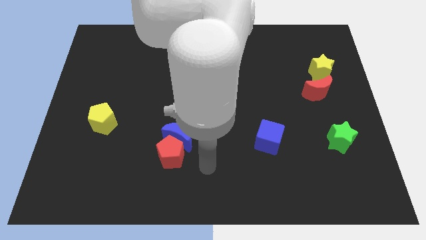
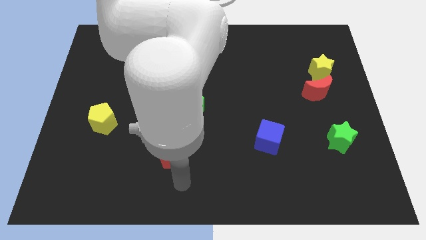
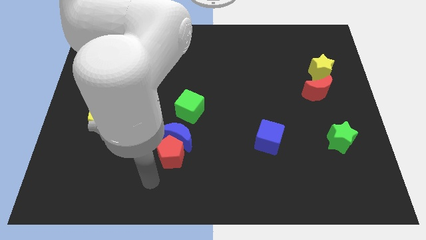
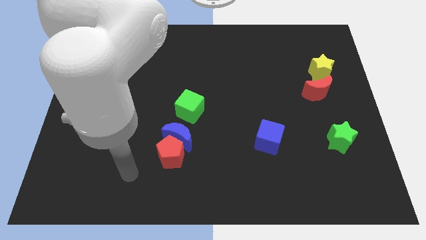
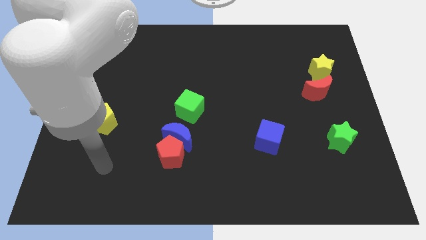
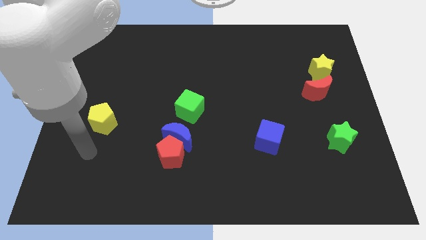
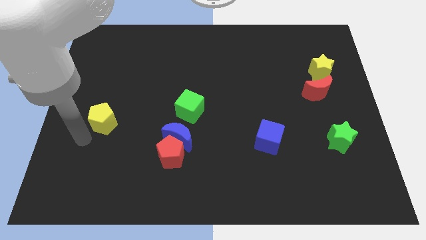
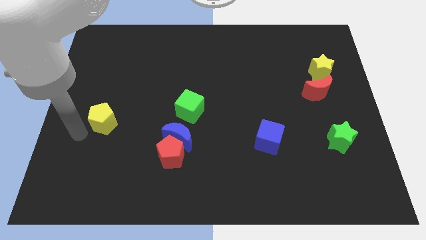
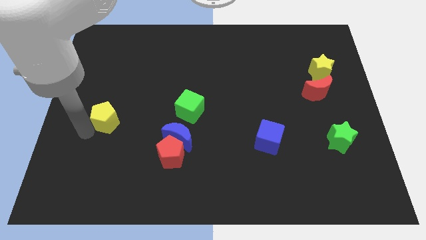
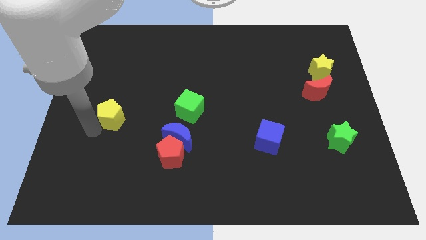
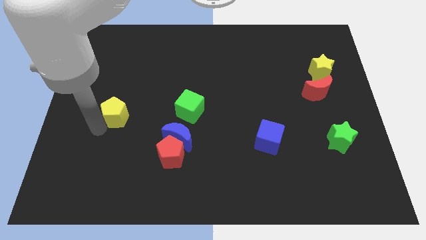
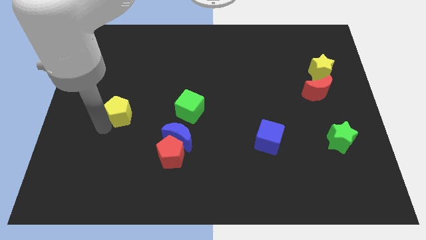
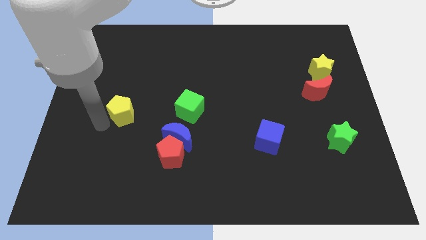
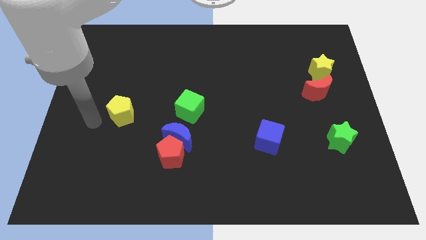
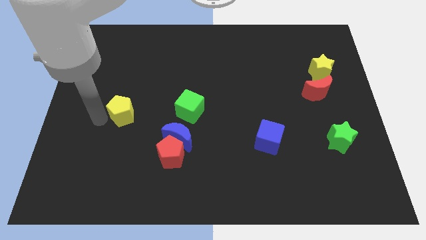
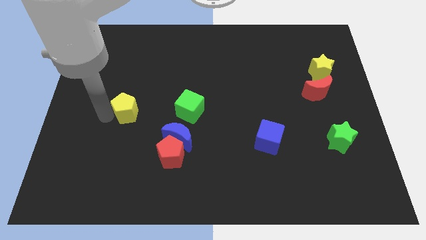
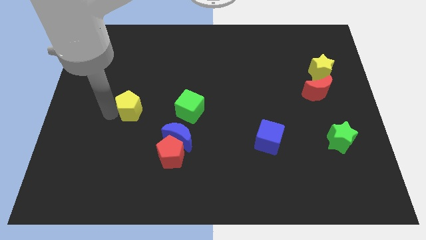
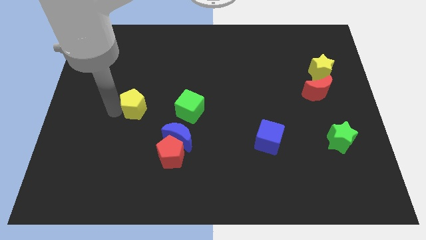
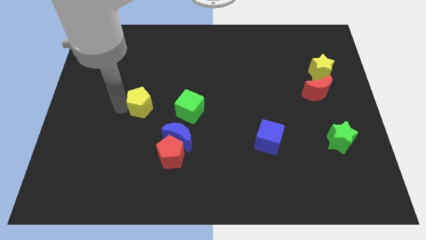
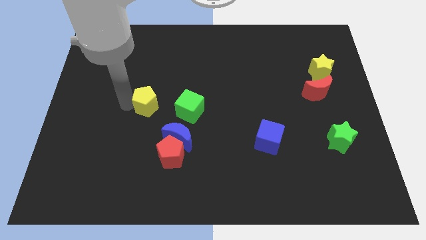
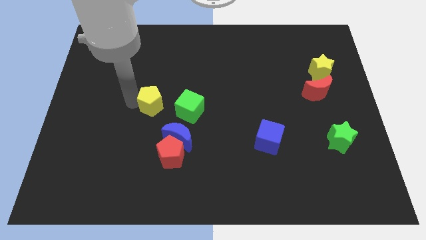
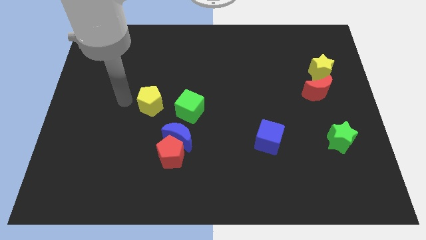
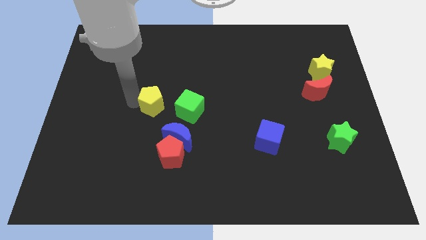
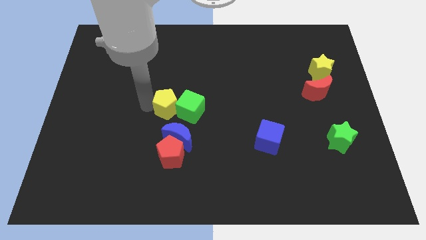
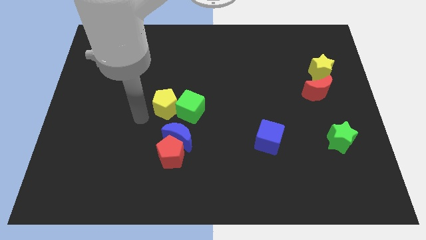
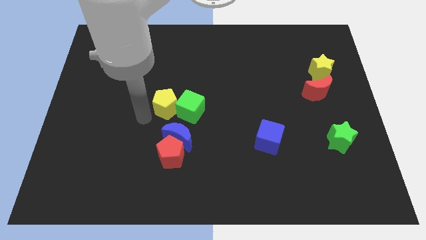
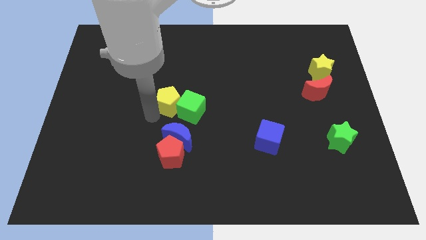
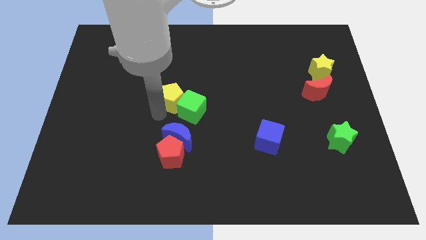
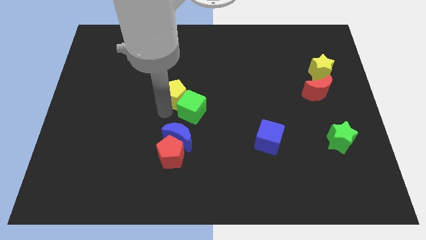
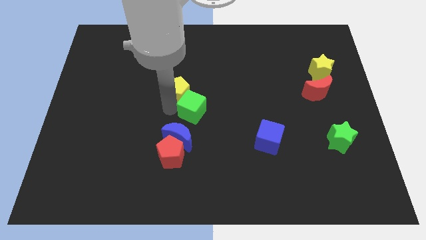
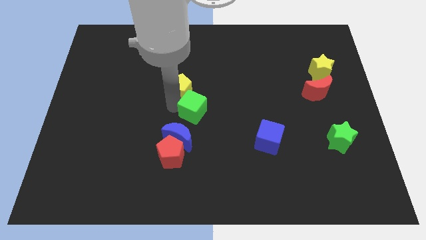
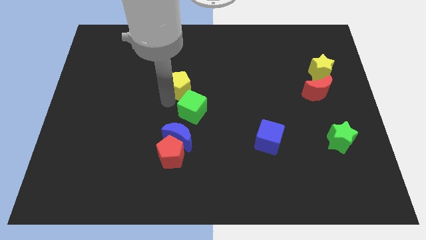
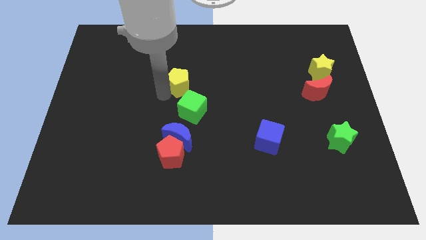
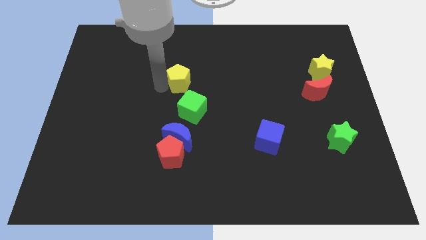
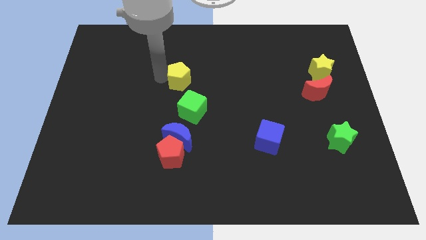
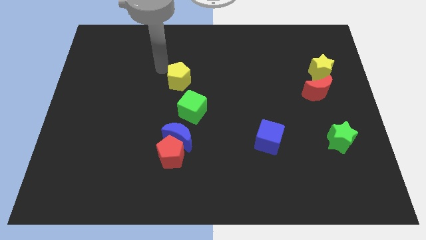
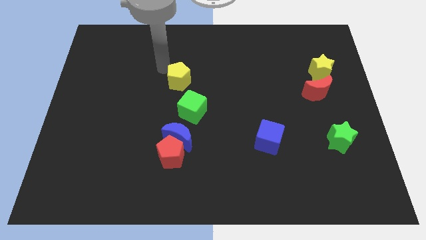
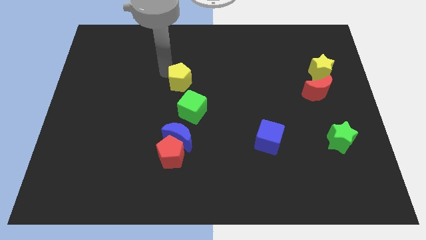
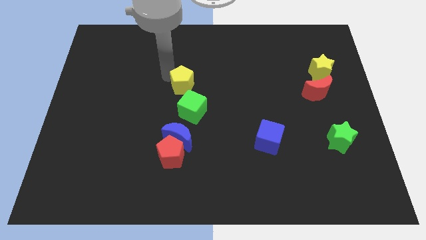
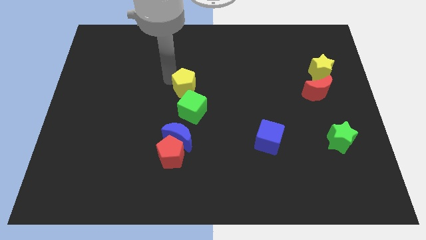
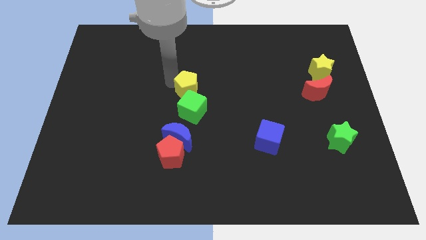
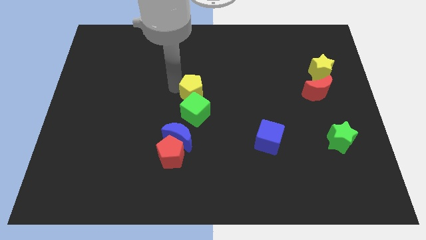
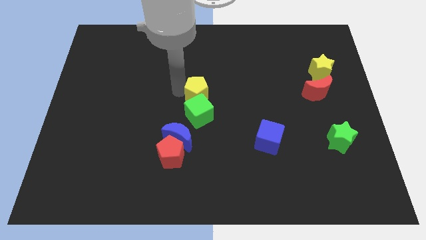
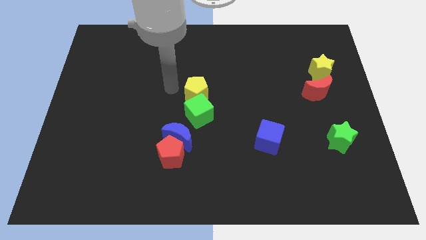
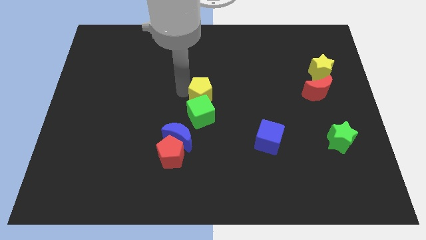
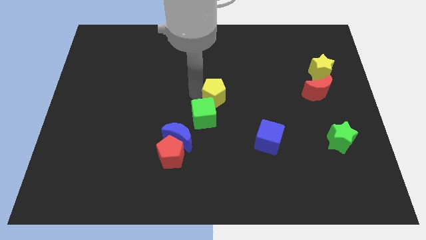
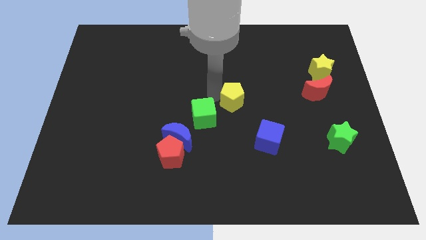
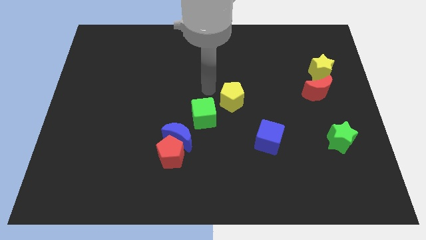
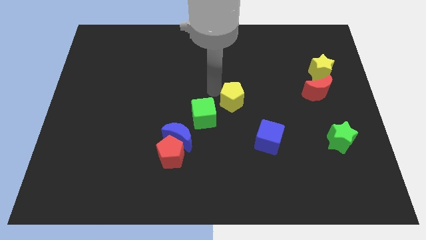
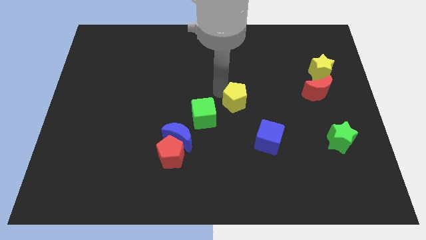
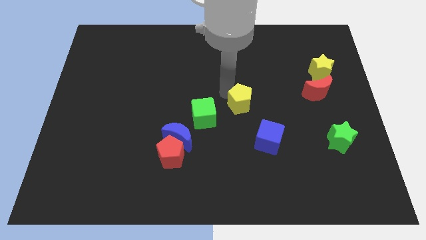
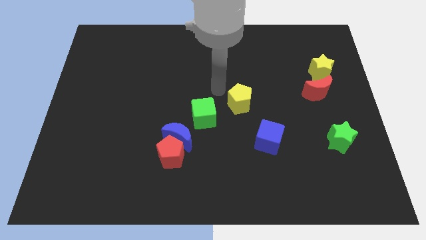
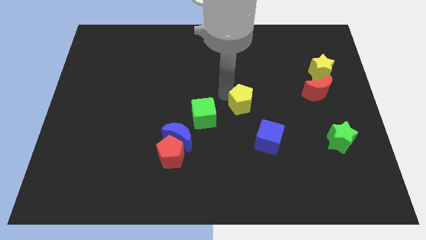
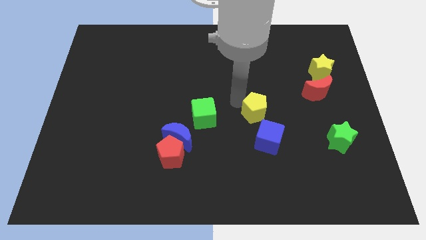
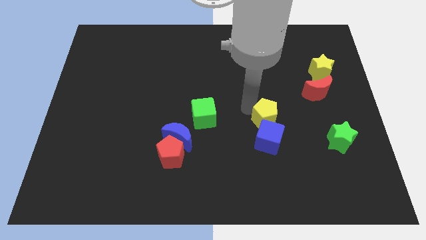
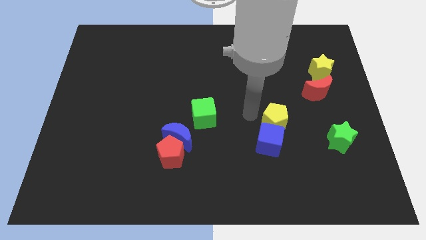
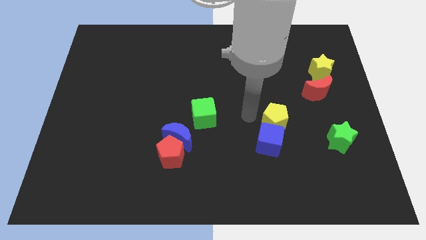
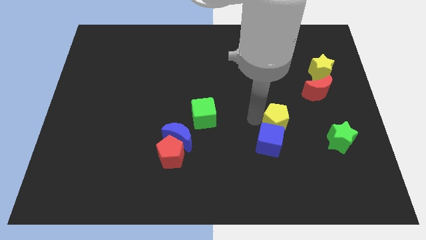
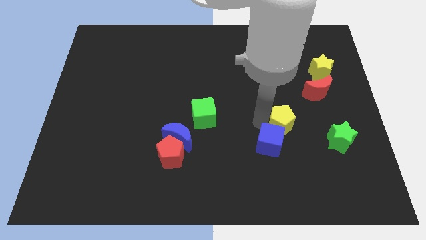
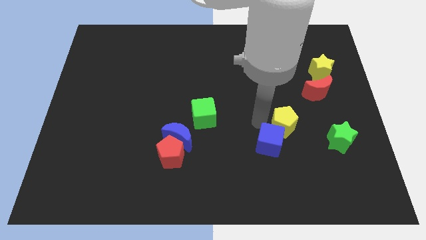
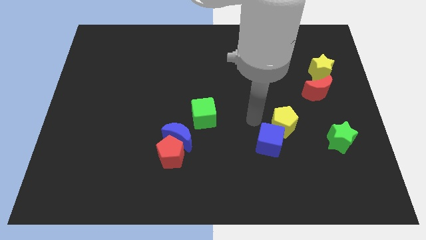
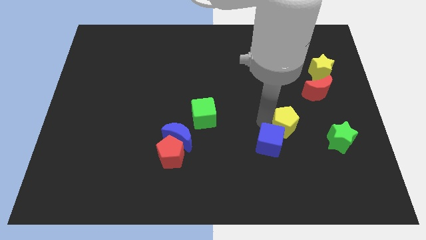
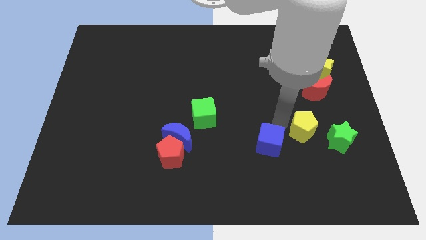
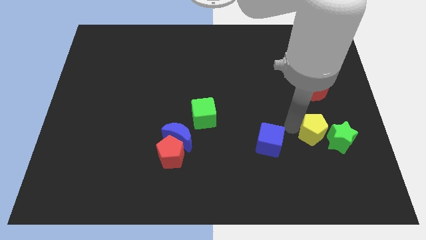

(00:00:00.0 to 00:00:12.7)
move the yellow pentagon towards the green star

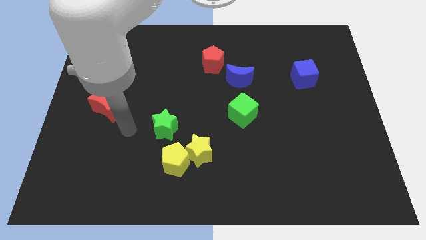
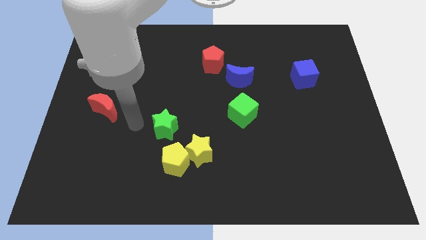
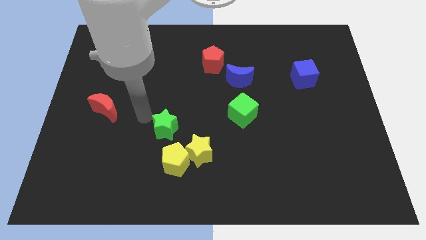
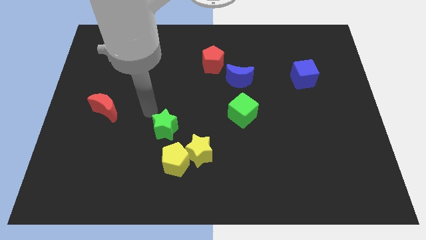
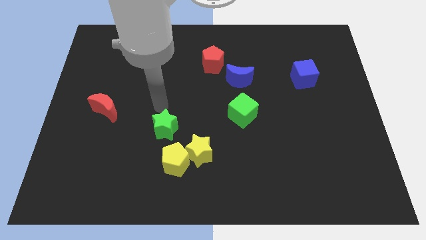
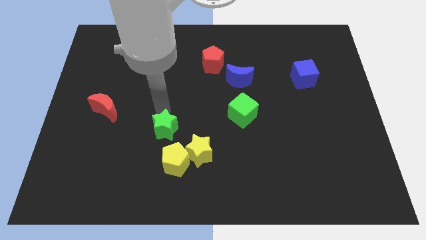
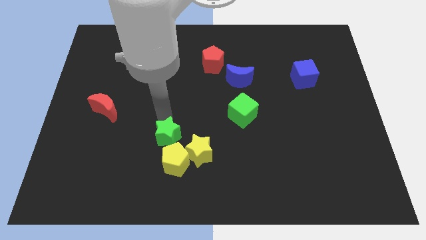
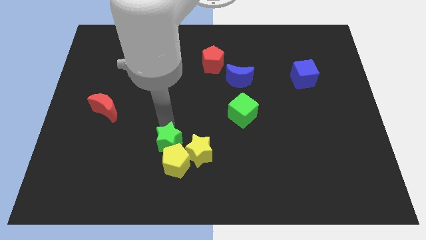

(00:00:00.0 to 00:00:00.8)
push the green star close to the yellow pentagon
